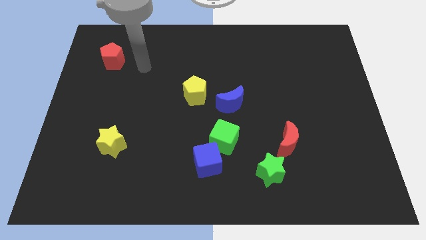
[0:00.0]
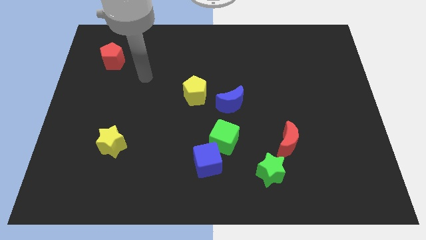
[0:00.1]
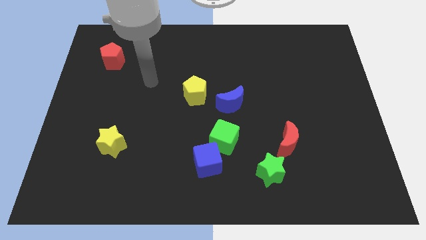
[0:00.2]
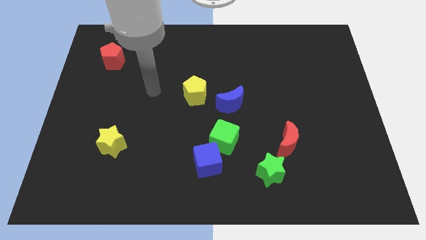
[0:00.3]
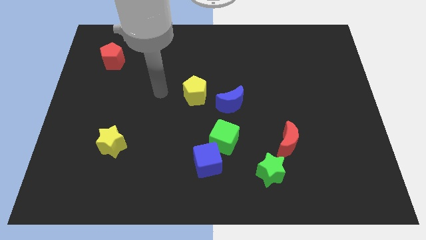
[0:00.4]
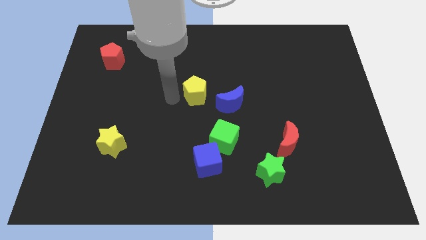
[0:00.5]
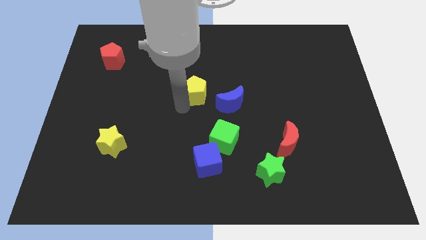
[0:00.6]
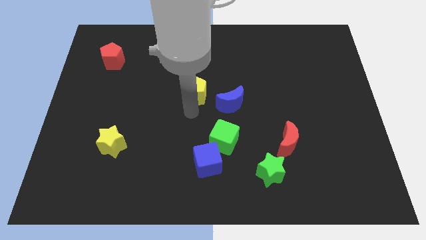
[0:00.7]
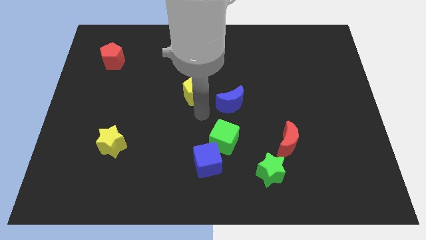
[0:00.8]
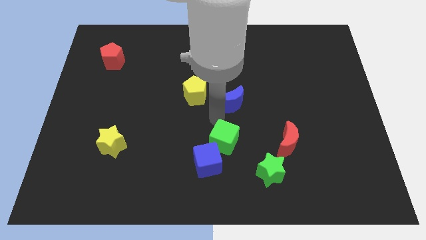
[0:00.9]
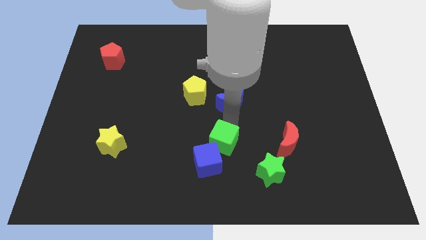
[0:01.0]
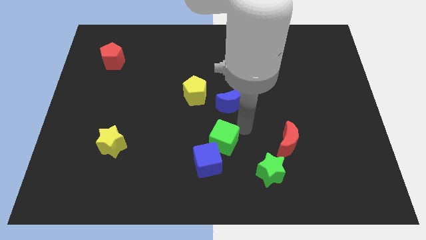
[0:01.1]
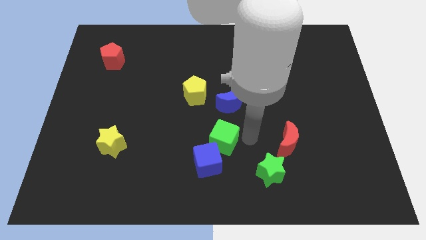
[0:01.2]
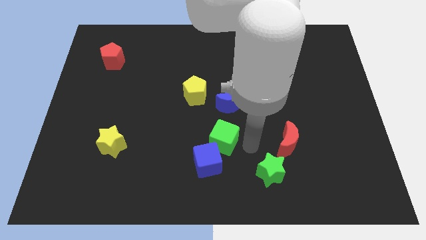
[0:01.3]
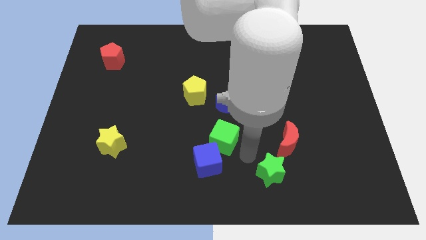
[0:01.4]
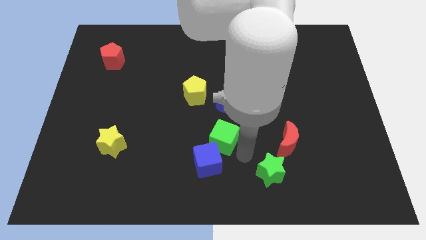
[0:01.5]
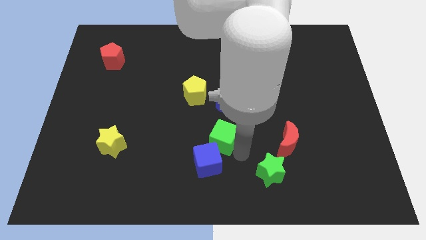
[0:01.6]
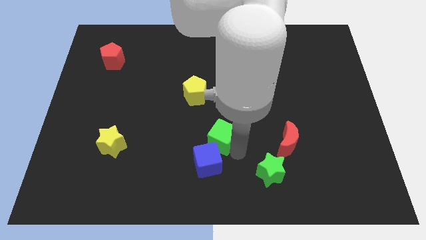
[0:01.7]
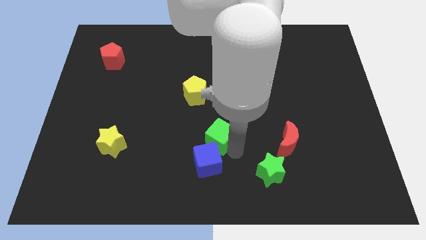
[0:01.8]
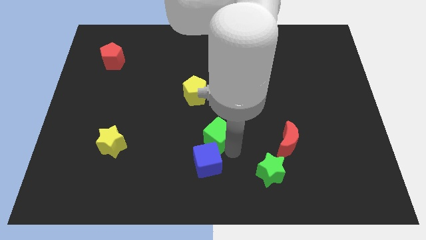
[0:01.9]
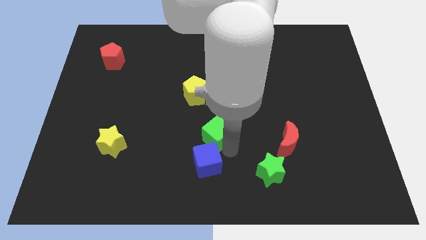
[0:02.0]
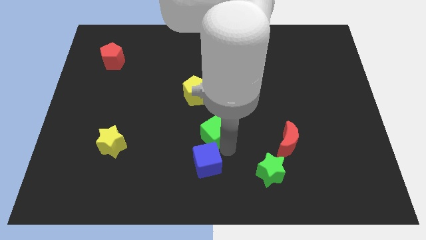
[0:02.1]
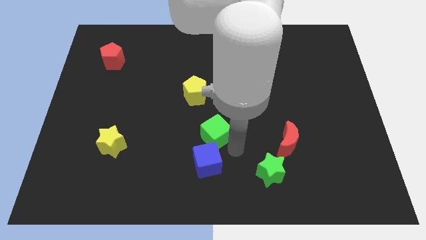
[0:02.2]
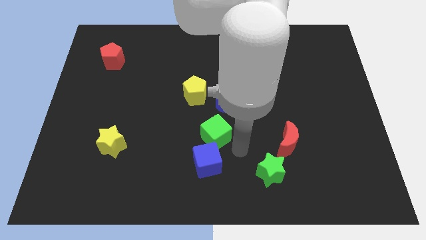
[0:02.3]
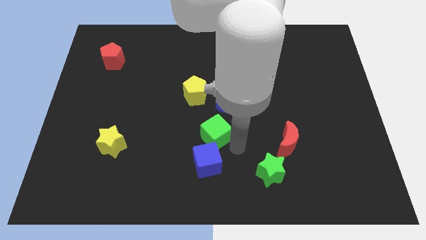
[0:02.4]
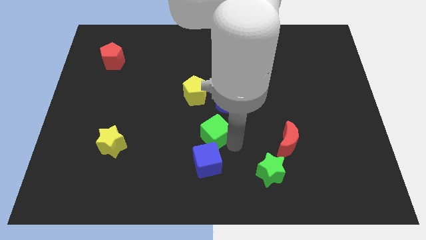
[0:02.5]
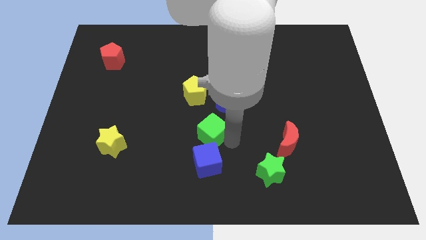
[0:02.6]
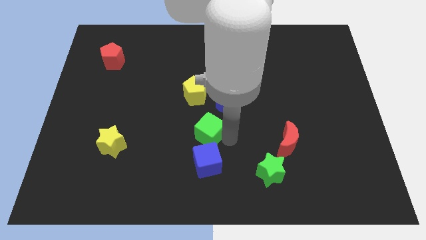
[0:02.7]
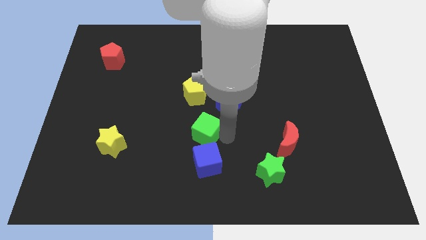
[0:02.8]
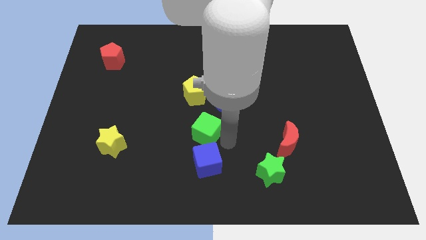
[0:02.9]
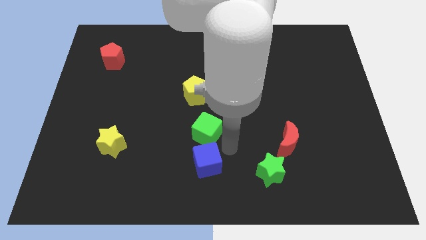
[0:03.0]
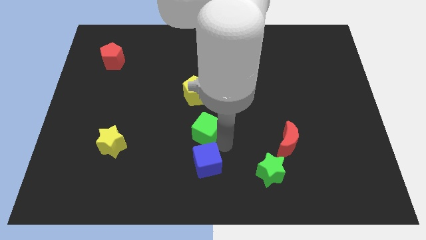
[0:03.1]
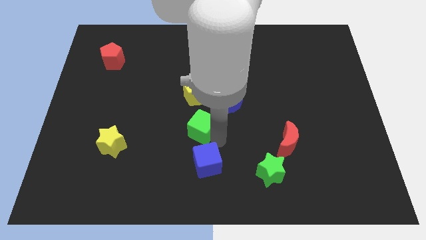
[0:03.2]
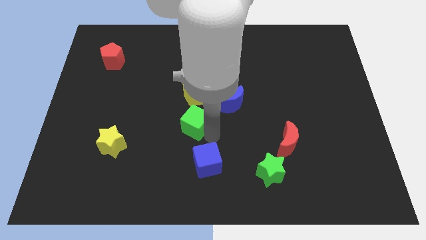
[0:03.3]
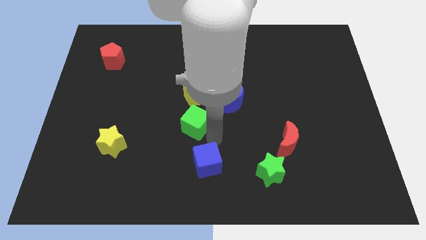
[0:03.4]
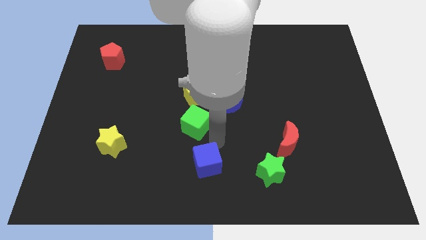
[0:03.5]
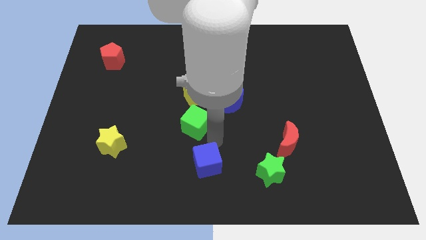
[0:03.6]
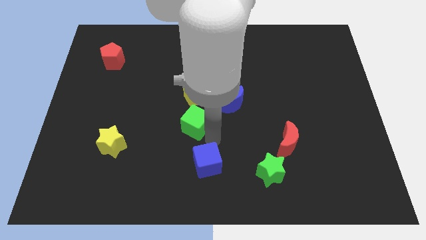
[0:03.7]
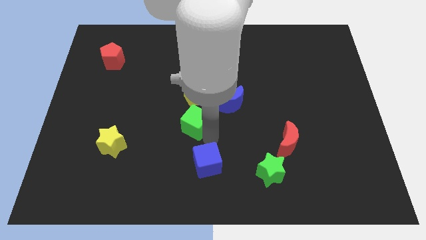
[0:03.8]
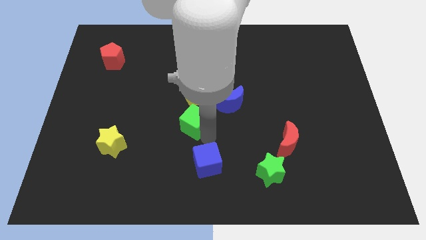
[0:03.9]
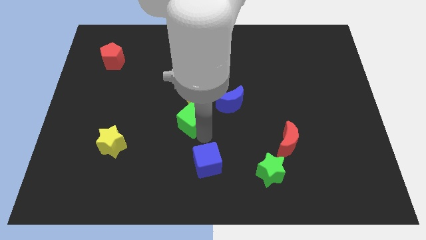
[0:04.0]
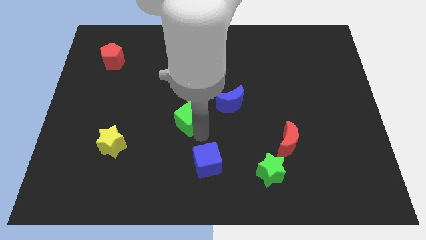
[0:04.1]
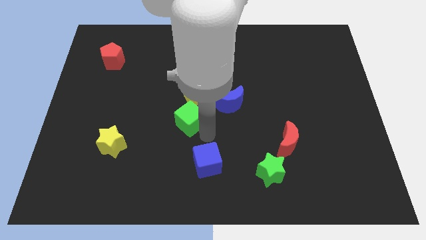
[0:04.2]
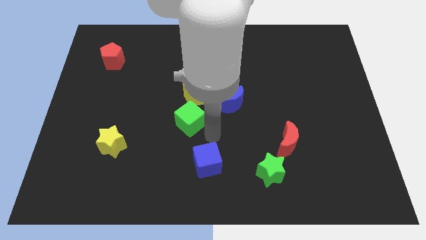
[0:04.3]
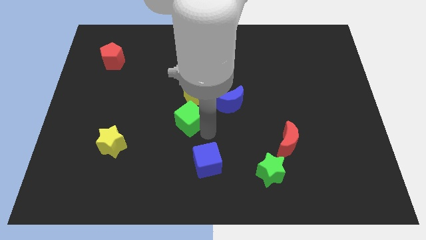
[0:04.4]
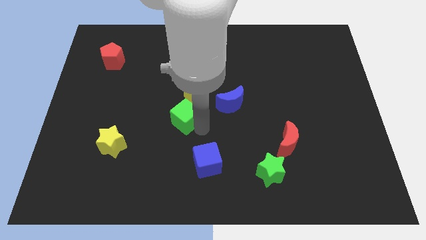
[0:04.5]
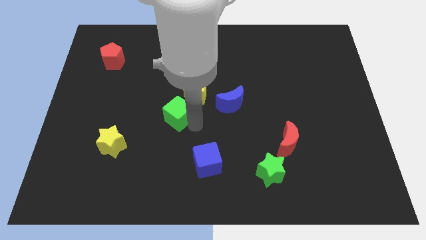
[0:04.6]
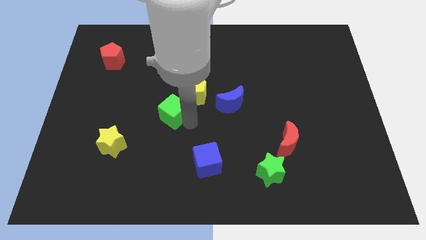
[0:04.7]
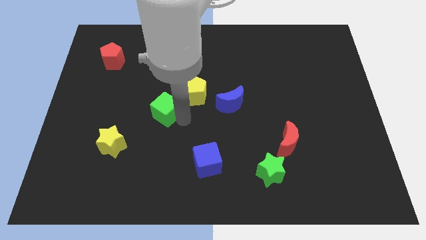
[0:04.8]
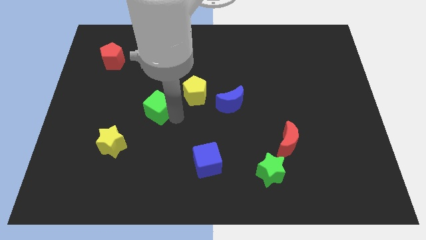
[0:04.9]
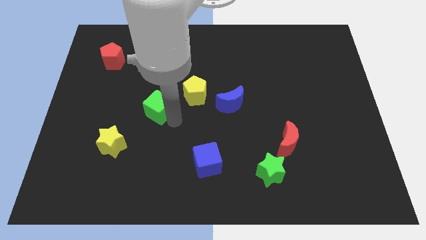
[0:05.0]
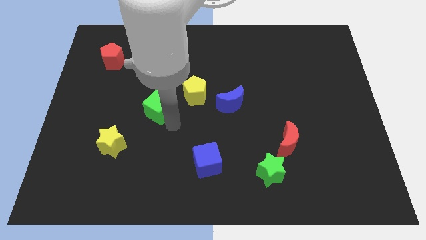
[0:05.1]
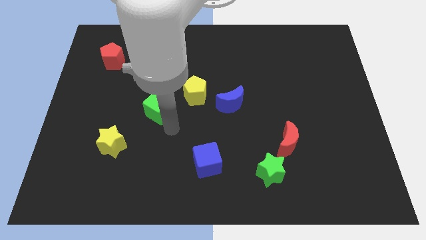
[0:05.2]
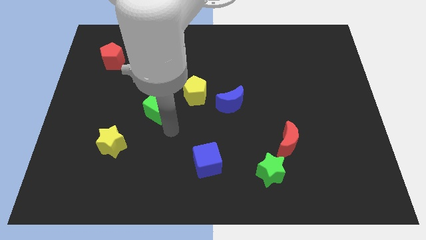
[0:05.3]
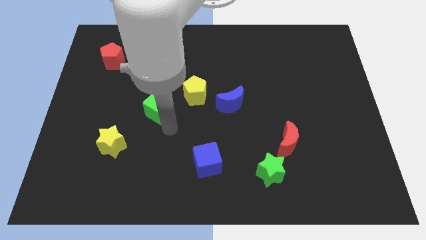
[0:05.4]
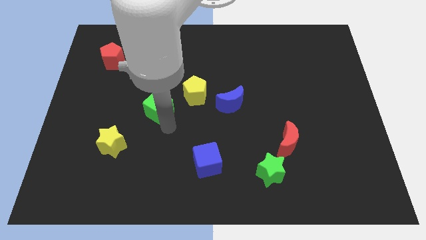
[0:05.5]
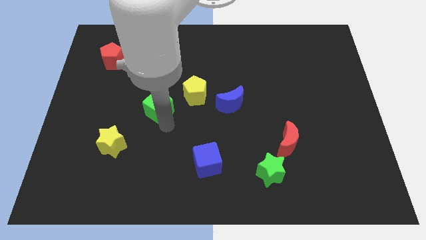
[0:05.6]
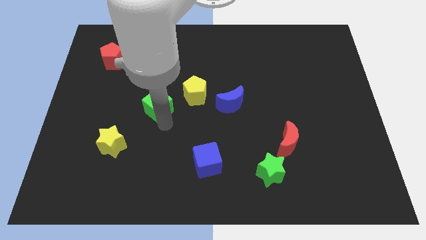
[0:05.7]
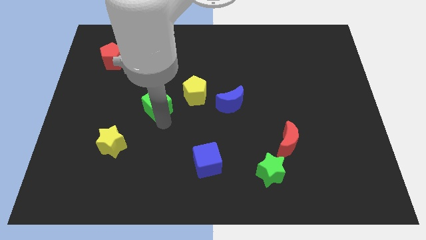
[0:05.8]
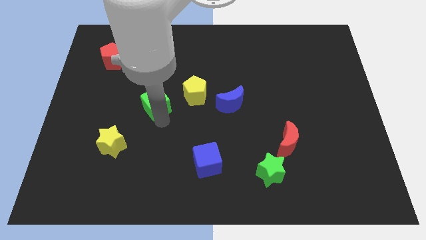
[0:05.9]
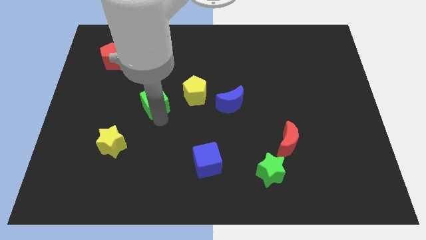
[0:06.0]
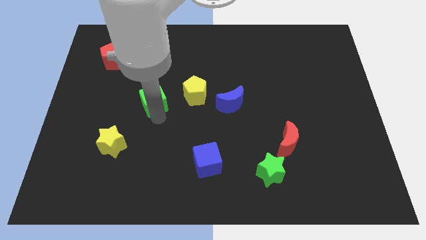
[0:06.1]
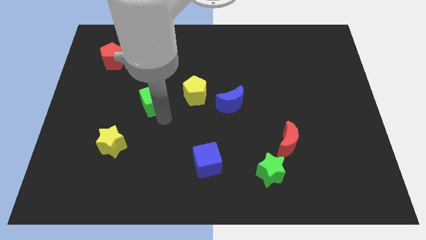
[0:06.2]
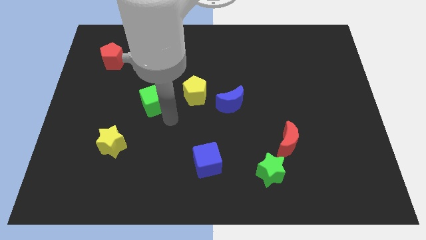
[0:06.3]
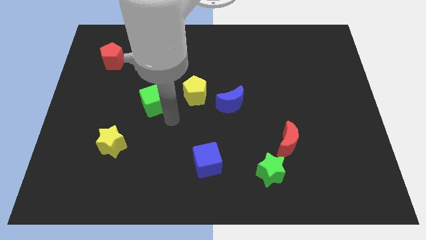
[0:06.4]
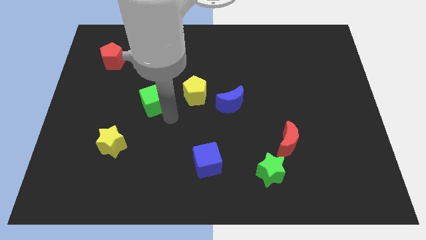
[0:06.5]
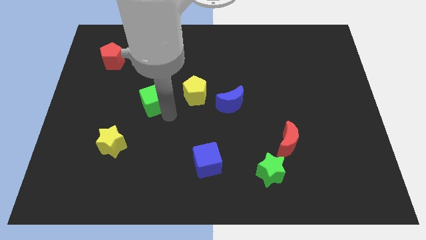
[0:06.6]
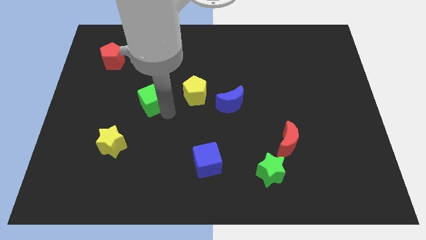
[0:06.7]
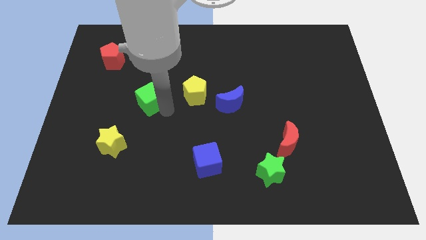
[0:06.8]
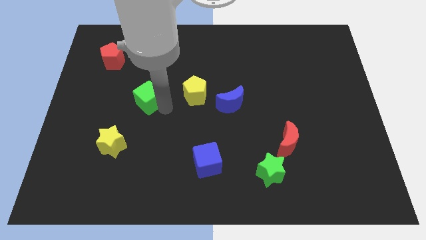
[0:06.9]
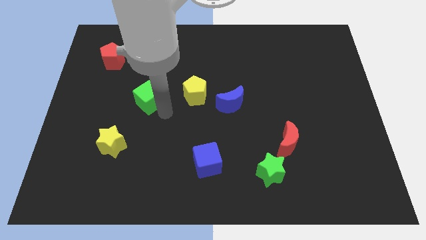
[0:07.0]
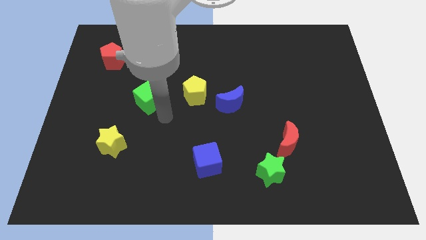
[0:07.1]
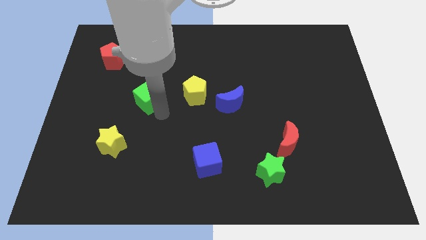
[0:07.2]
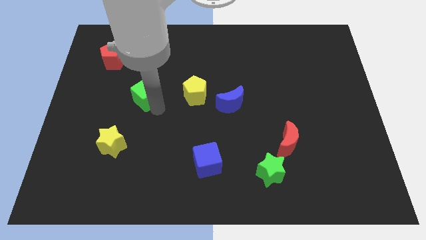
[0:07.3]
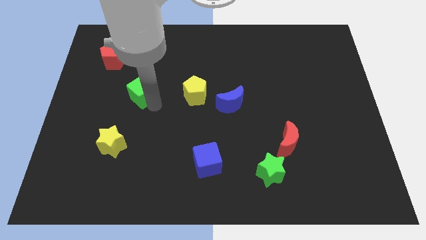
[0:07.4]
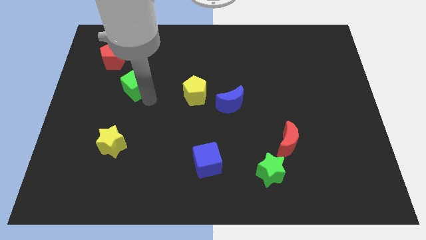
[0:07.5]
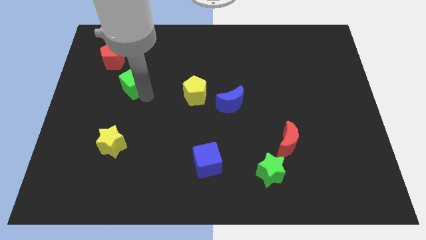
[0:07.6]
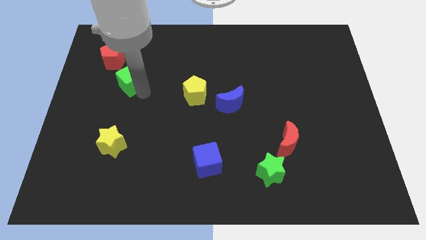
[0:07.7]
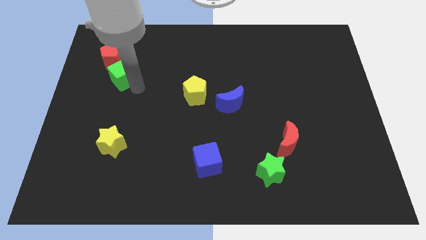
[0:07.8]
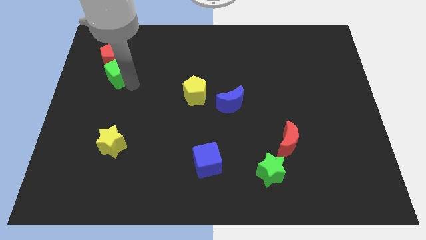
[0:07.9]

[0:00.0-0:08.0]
move the green cube next to the red pentagon
